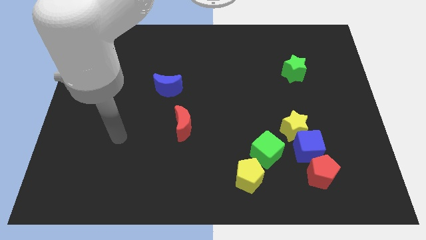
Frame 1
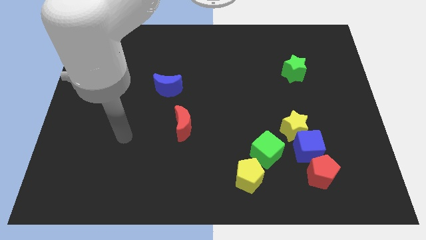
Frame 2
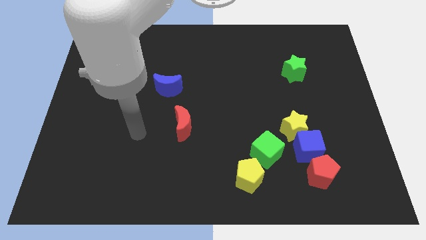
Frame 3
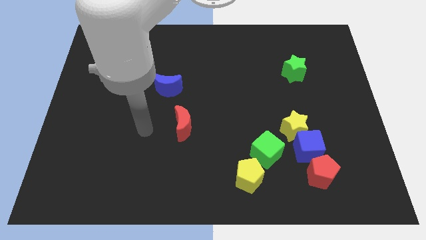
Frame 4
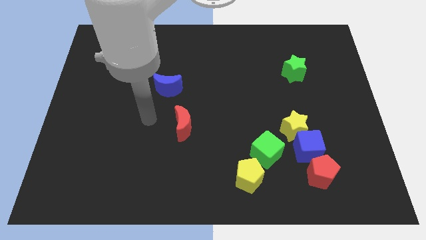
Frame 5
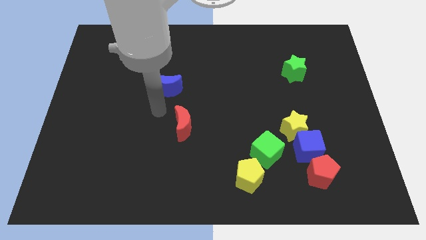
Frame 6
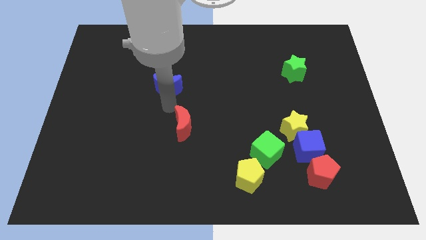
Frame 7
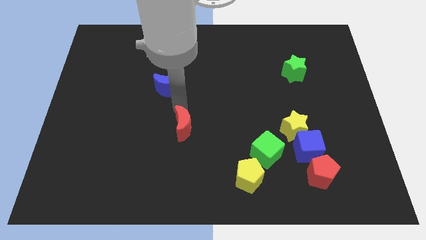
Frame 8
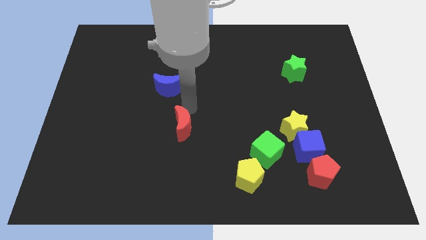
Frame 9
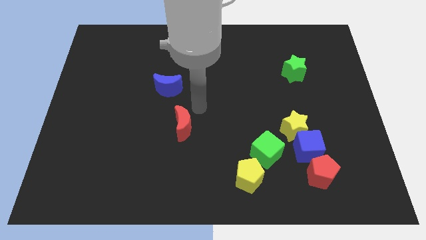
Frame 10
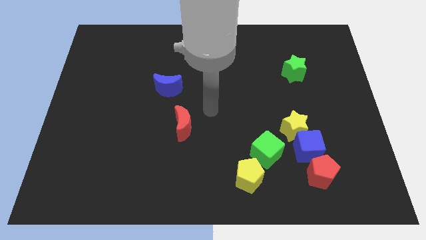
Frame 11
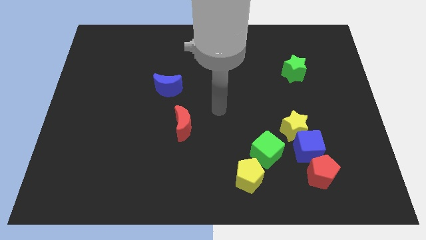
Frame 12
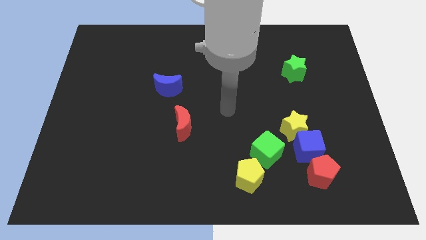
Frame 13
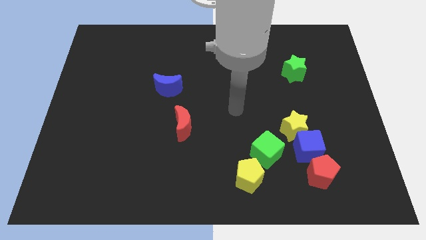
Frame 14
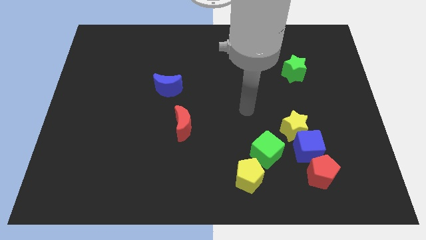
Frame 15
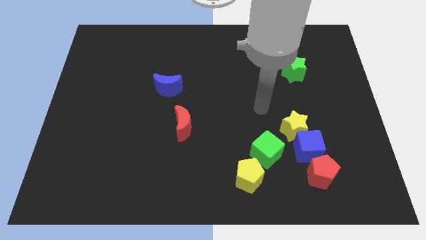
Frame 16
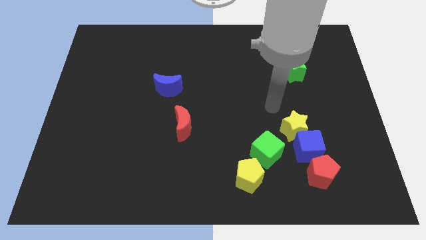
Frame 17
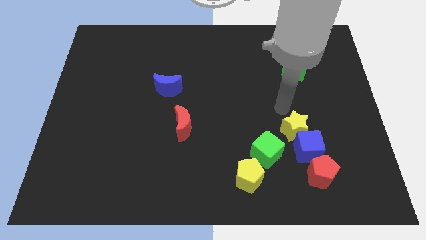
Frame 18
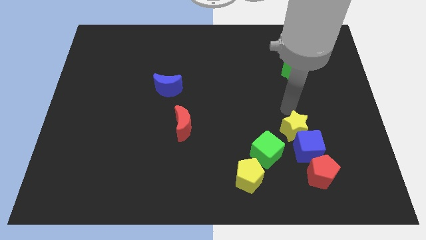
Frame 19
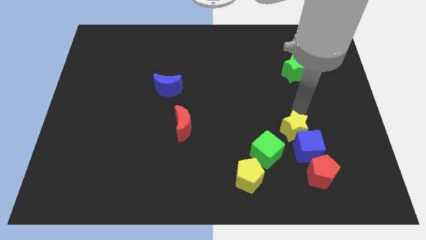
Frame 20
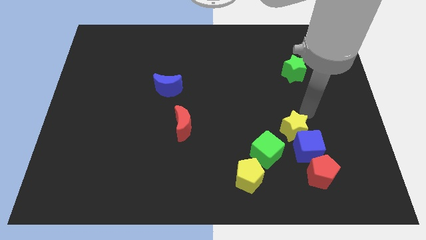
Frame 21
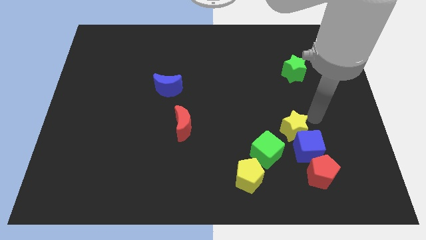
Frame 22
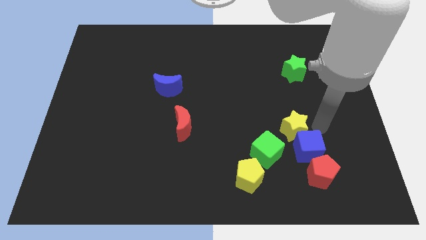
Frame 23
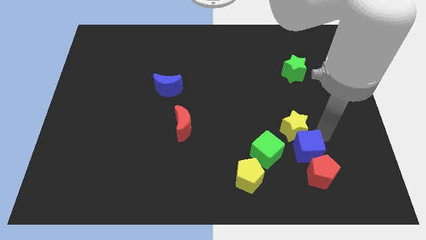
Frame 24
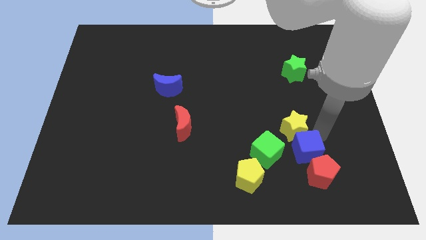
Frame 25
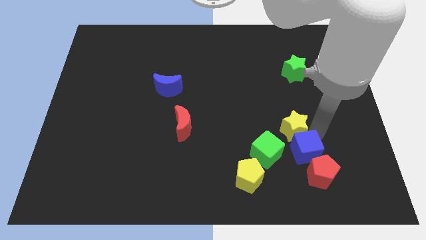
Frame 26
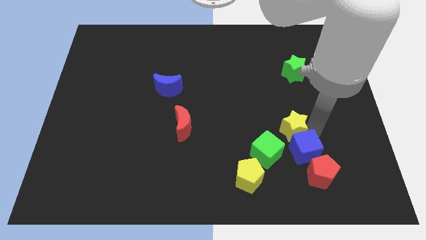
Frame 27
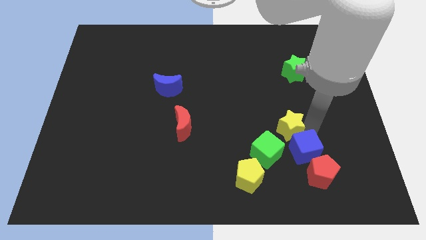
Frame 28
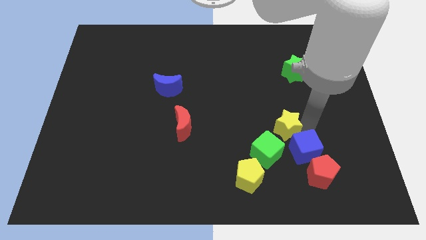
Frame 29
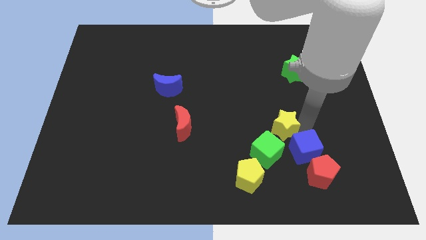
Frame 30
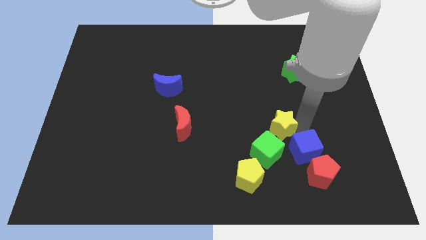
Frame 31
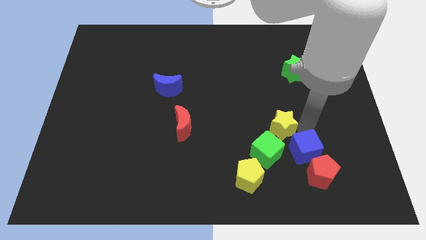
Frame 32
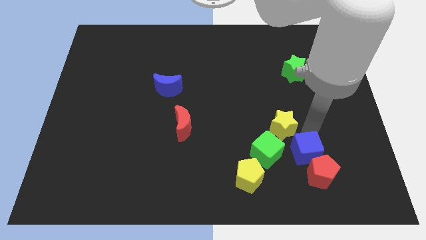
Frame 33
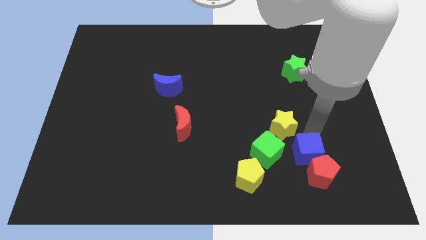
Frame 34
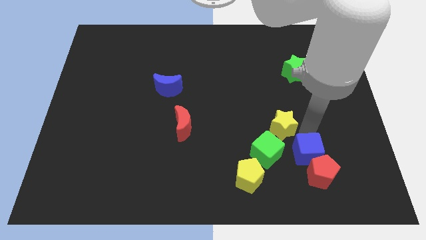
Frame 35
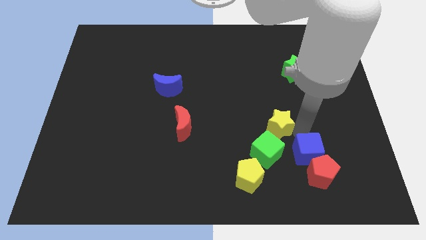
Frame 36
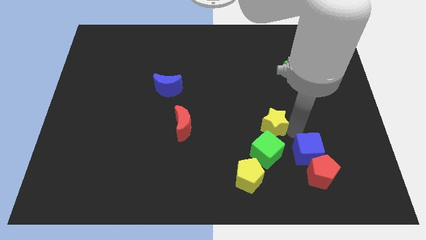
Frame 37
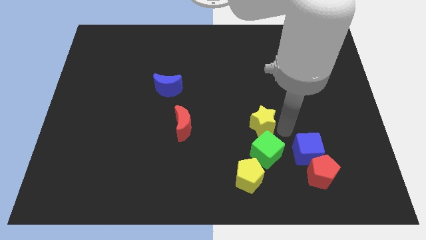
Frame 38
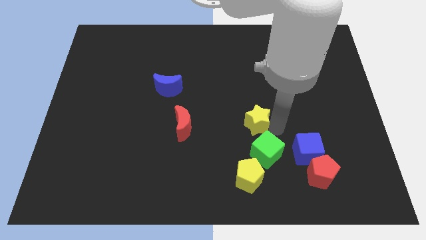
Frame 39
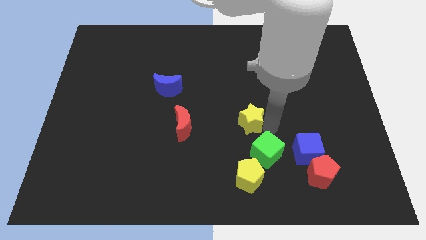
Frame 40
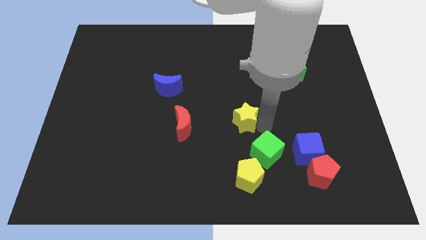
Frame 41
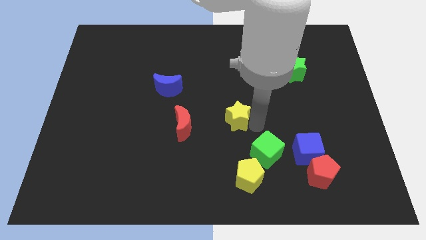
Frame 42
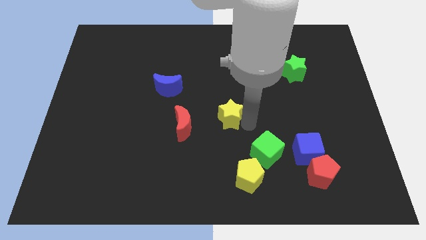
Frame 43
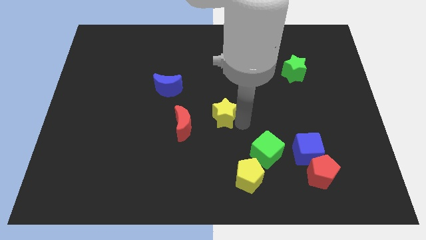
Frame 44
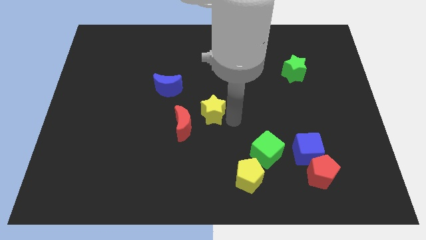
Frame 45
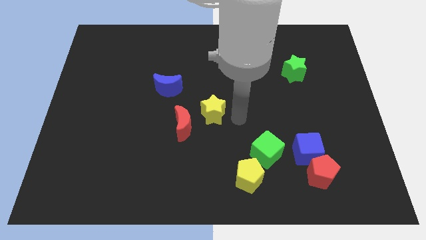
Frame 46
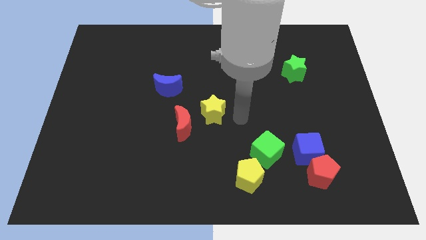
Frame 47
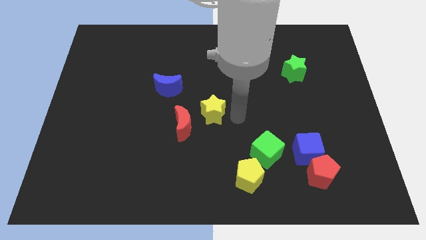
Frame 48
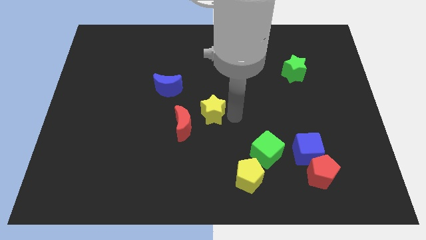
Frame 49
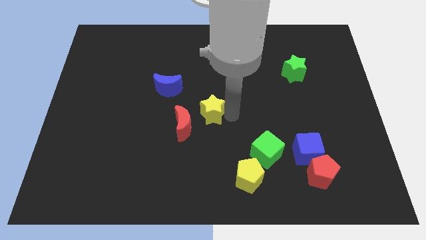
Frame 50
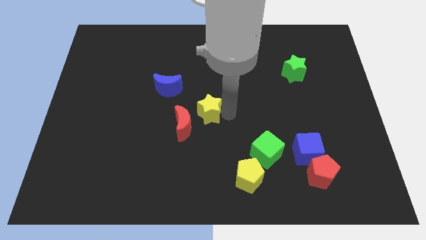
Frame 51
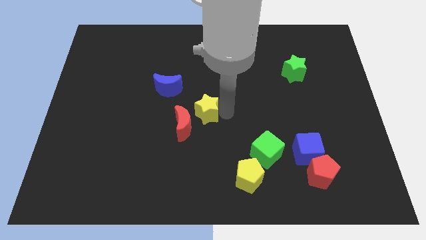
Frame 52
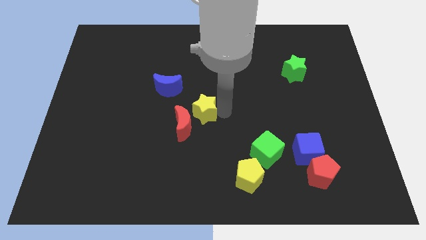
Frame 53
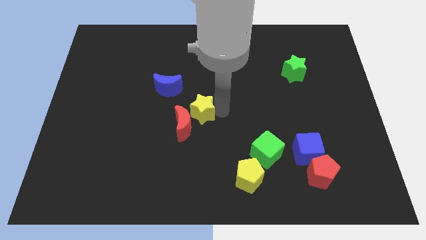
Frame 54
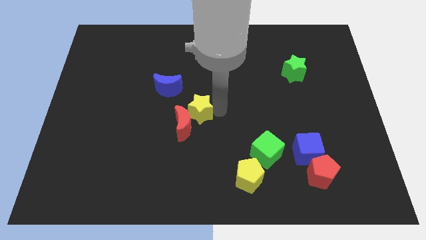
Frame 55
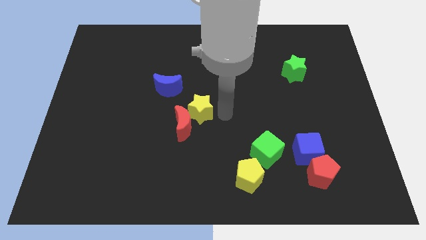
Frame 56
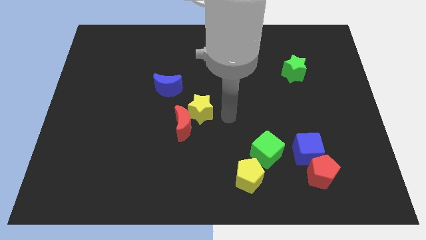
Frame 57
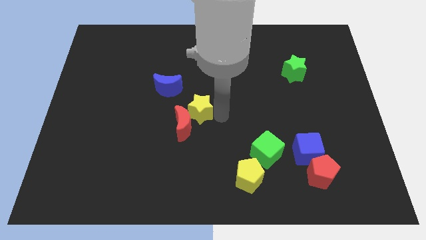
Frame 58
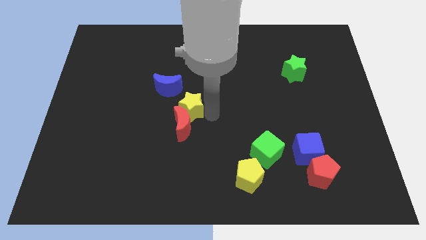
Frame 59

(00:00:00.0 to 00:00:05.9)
push the yellow star to the top left of the red moon
